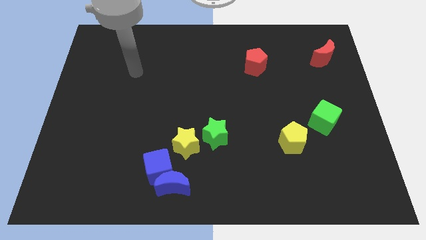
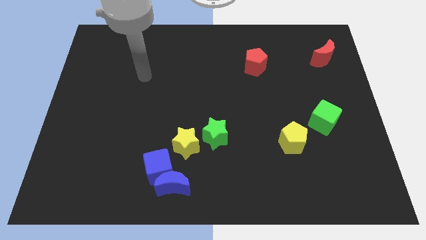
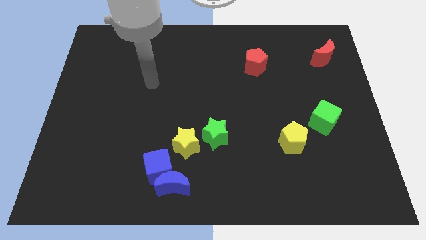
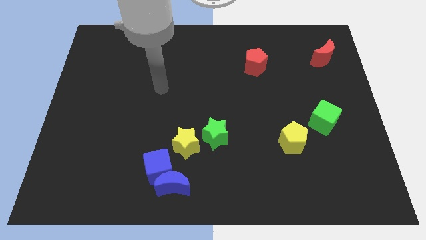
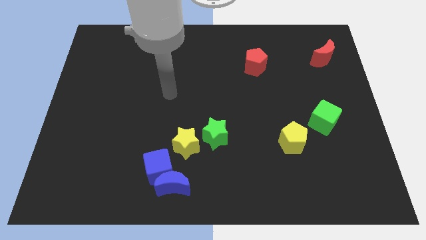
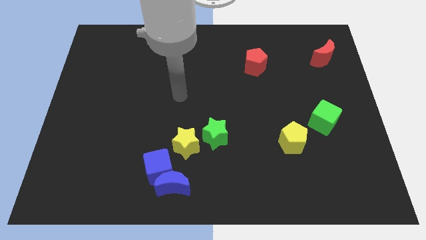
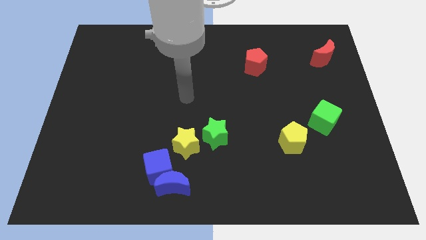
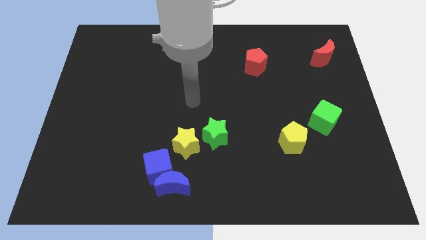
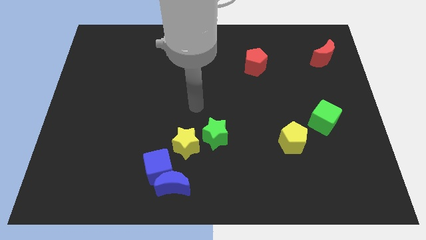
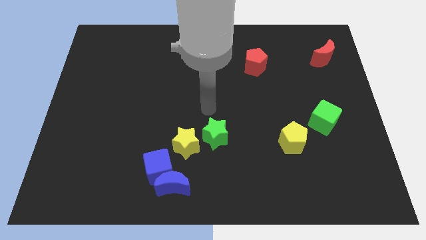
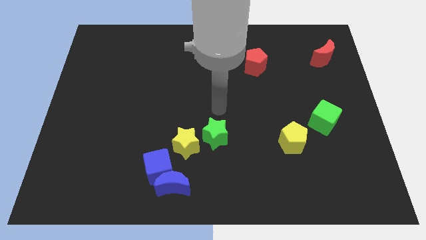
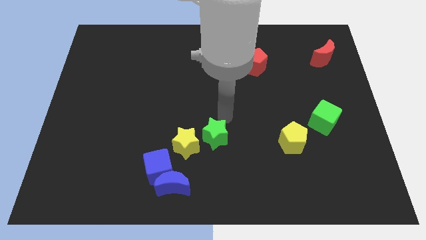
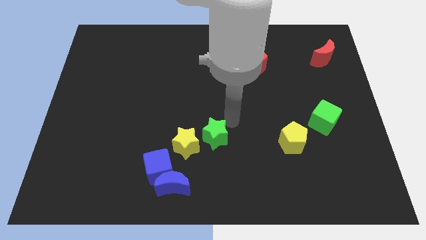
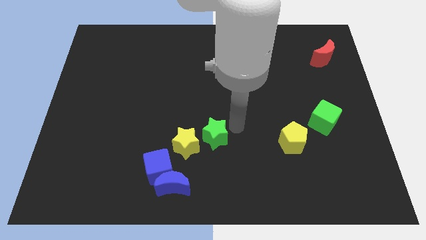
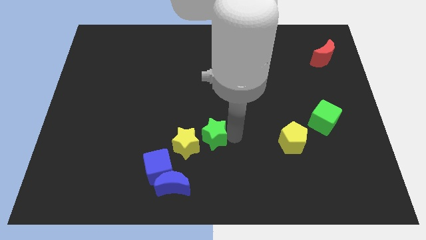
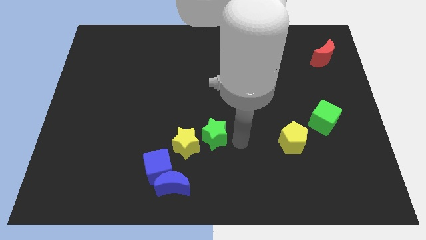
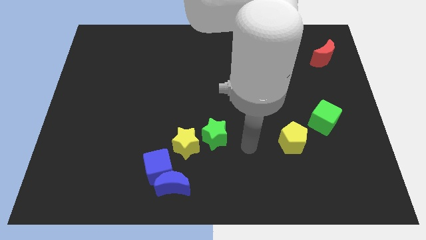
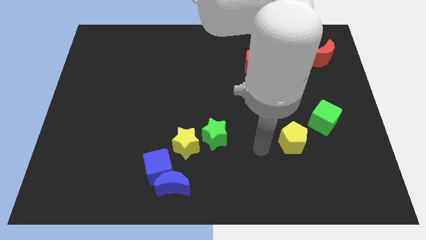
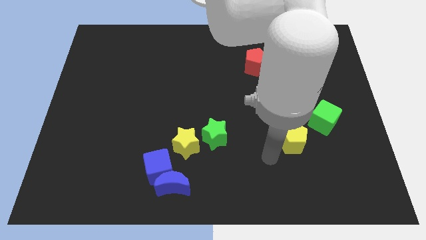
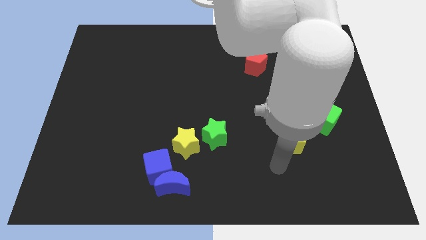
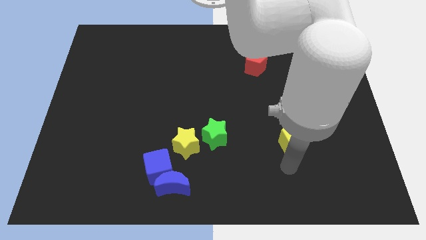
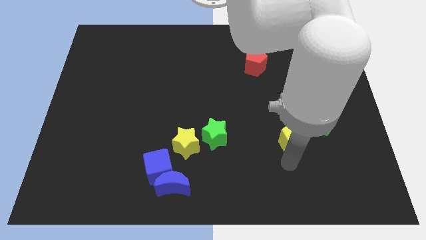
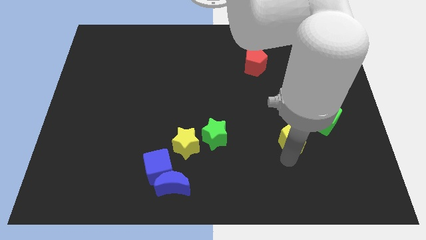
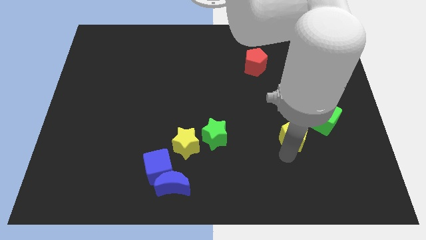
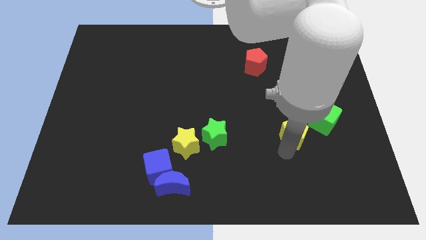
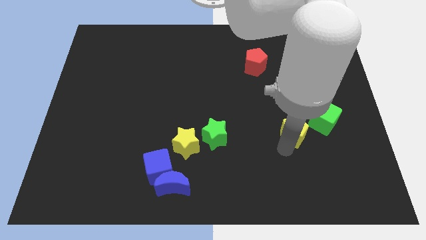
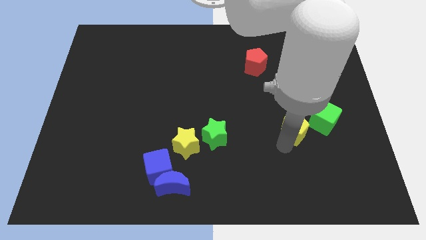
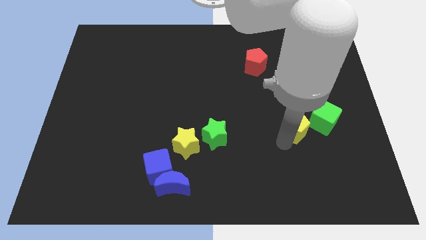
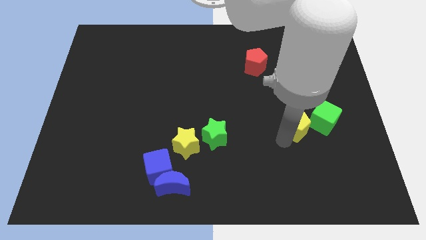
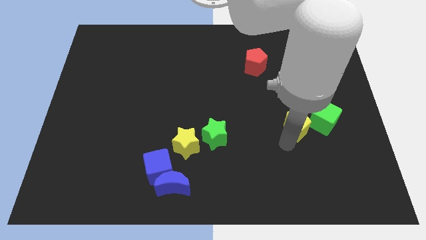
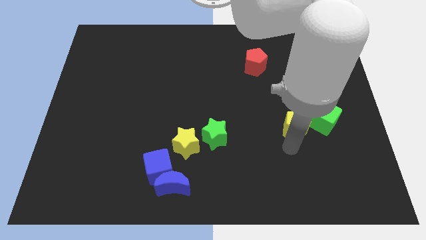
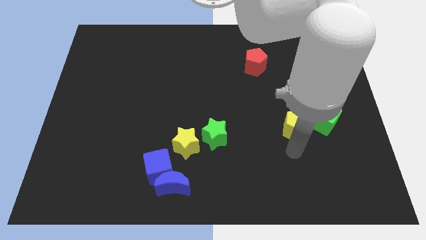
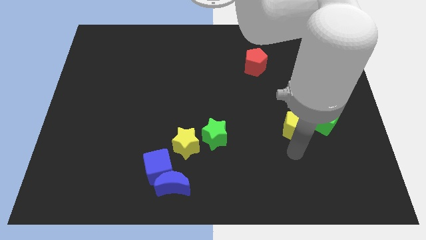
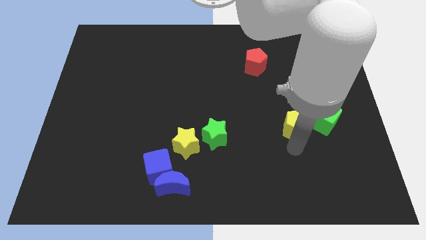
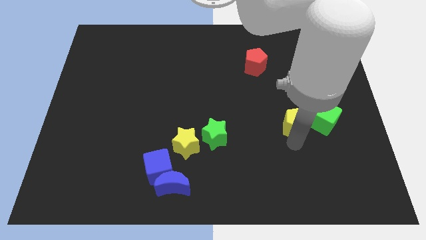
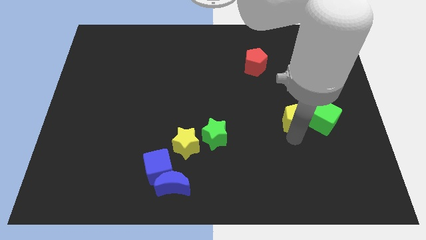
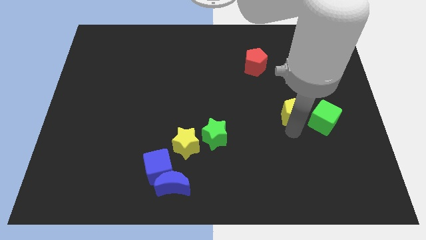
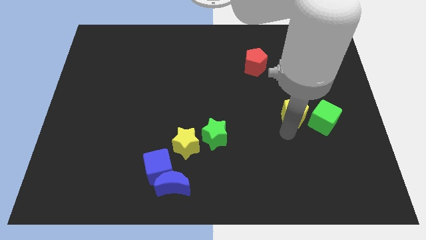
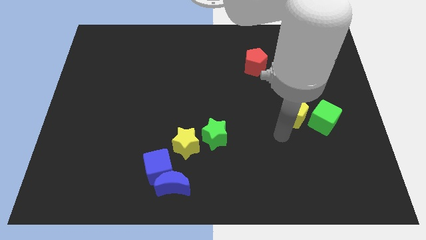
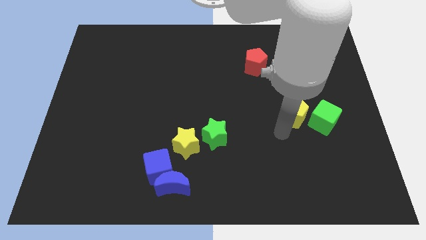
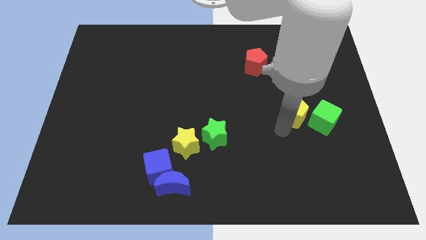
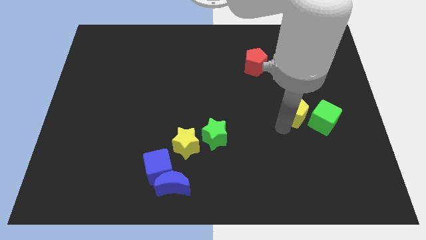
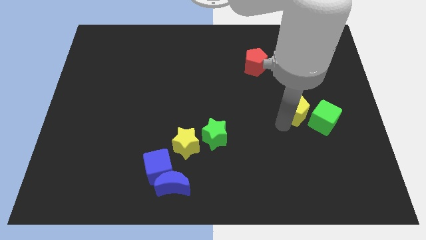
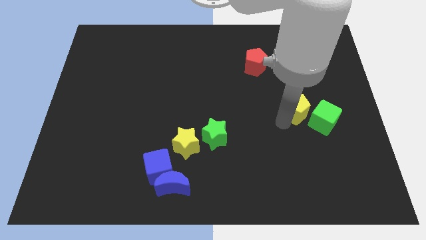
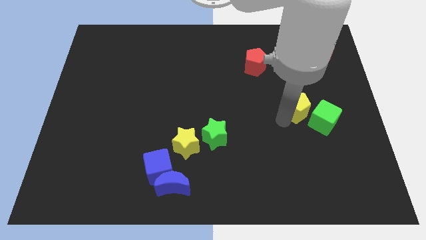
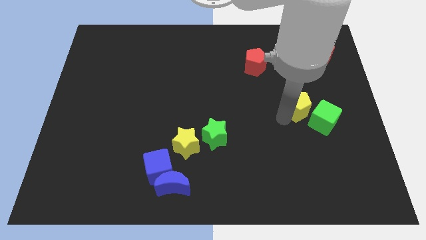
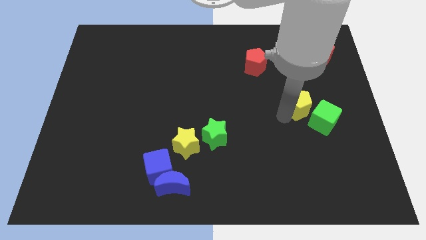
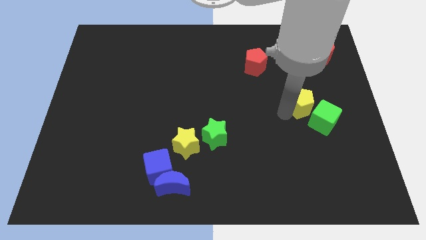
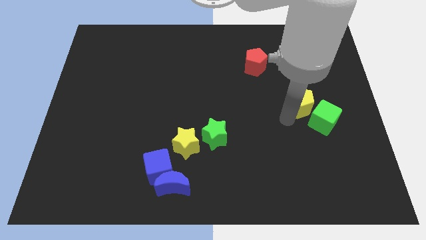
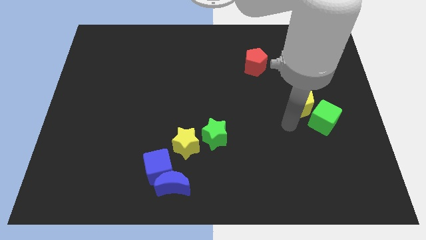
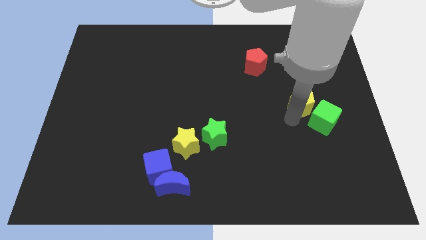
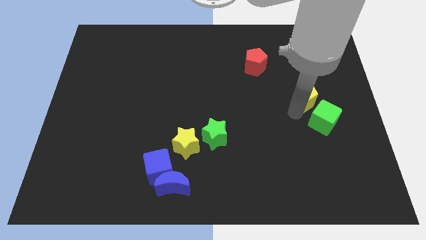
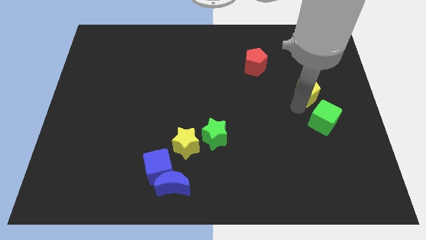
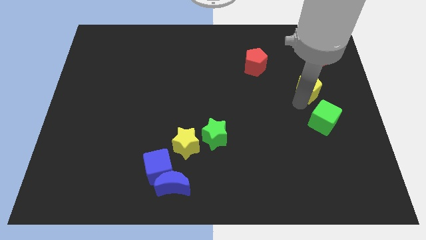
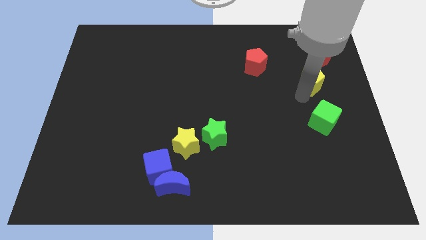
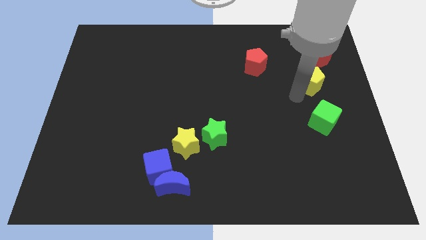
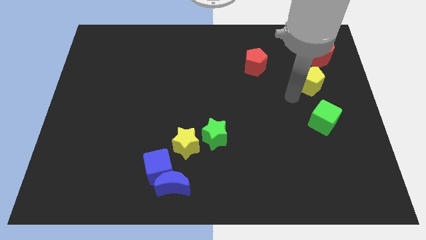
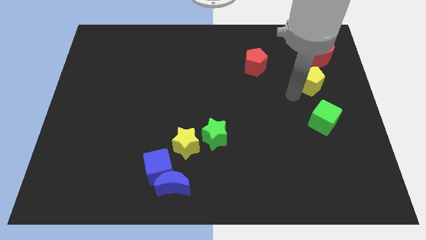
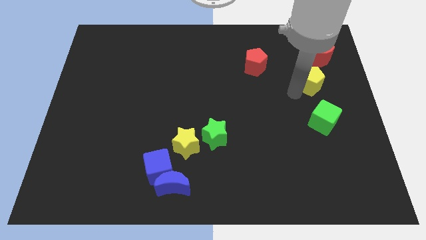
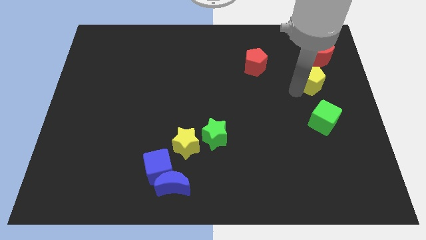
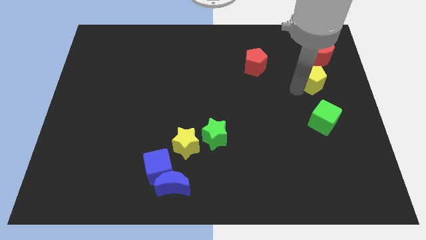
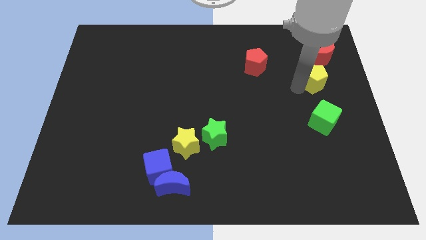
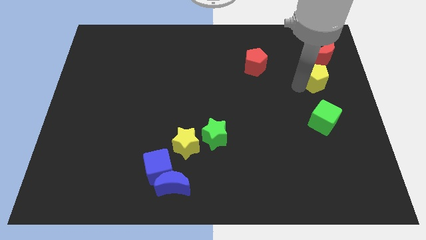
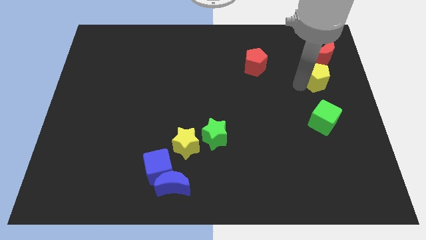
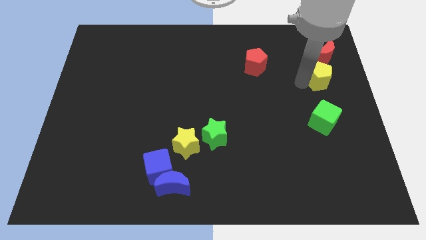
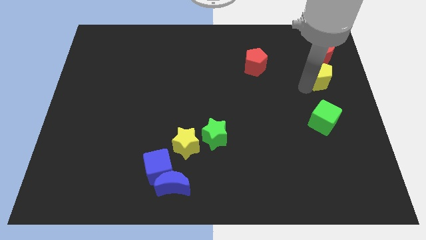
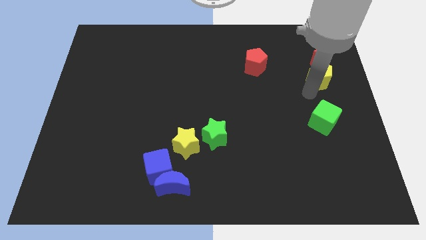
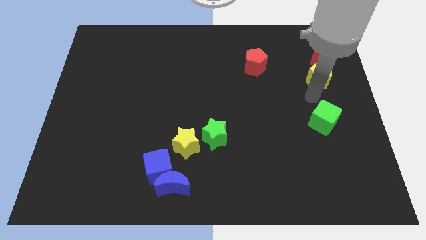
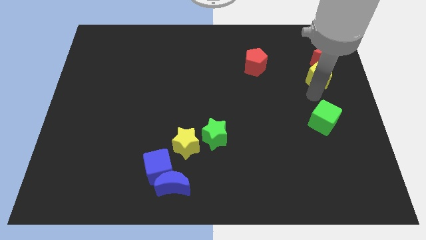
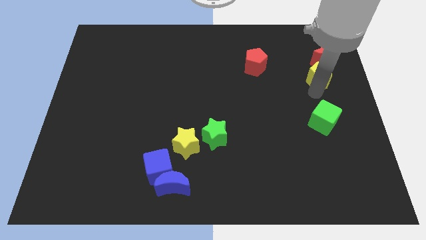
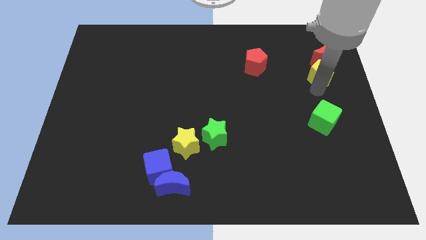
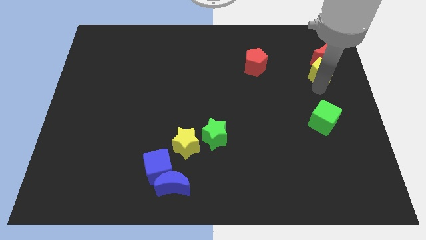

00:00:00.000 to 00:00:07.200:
push the yellow pentagon close to the red moon

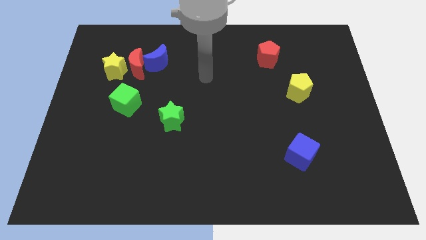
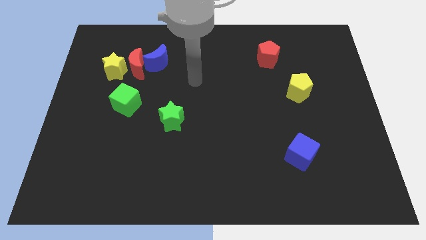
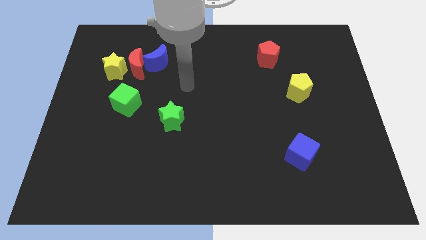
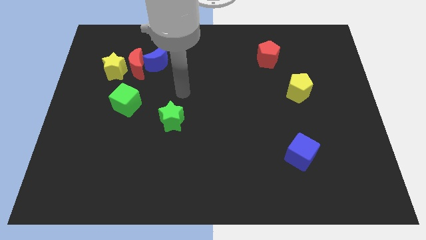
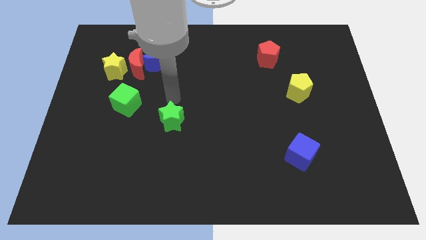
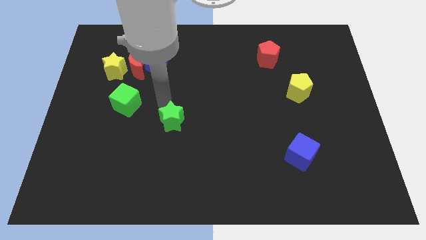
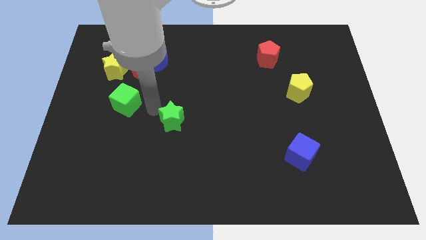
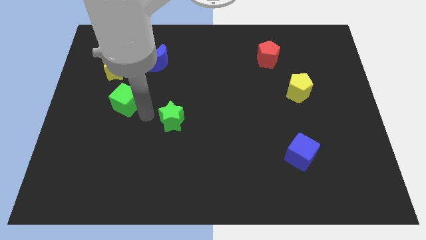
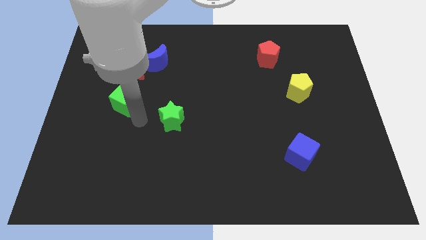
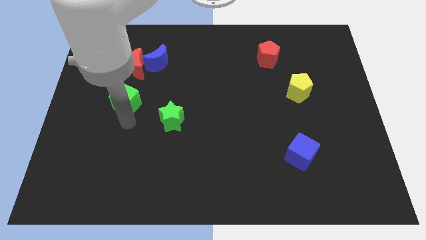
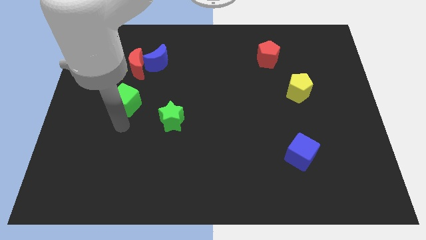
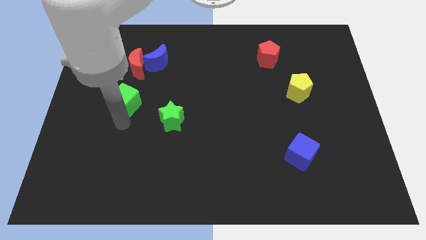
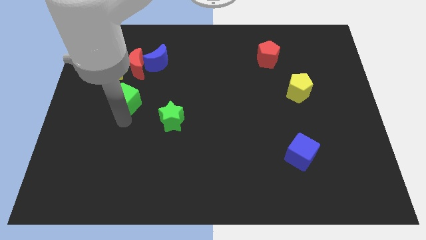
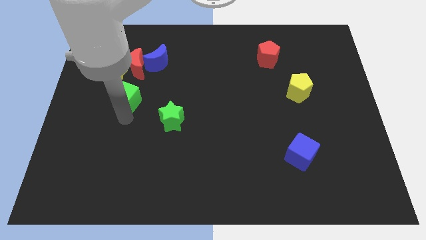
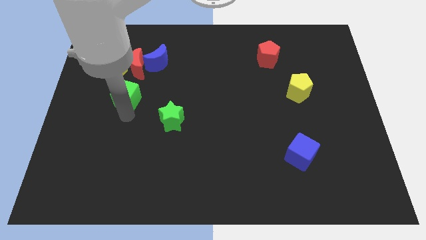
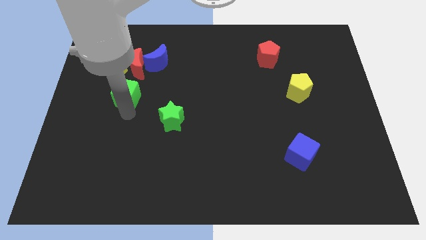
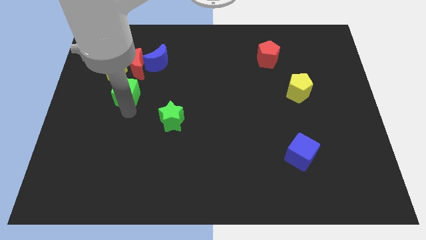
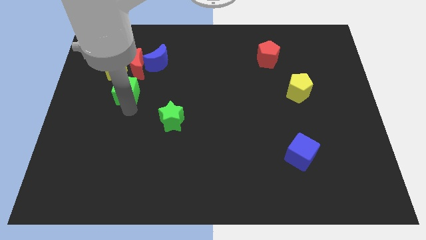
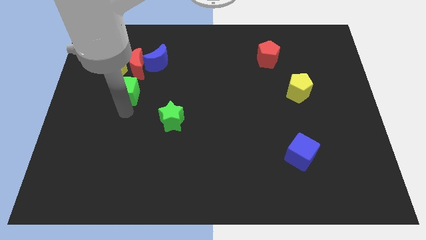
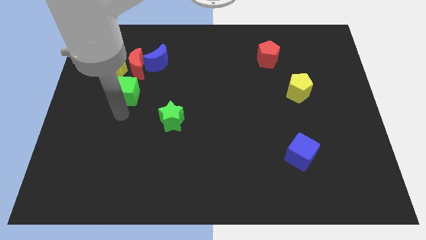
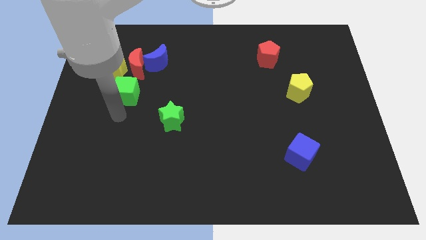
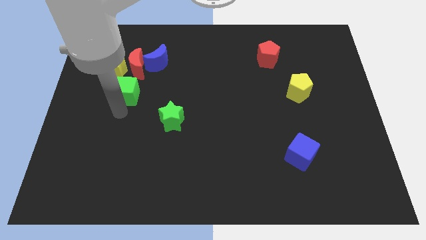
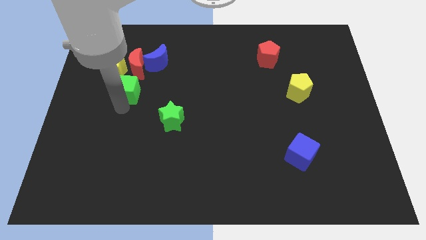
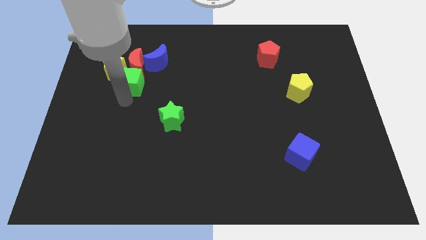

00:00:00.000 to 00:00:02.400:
move the green cube close to the red moon
